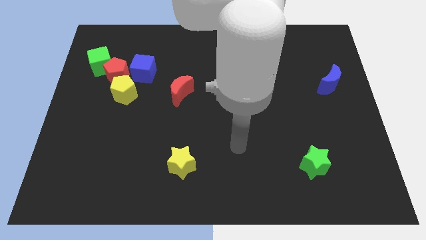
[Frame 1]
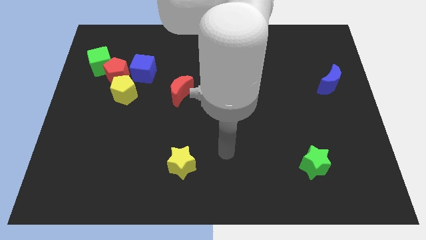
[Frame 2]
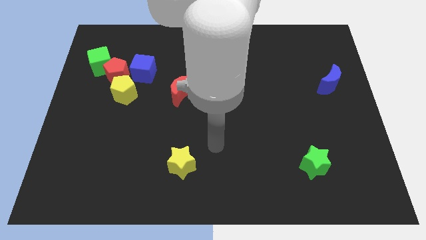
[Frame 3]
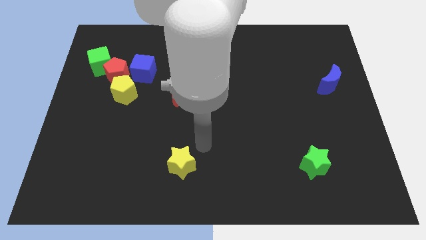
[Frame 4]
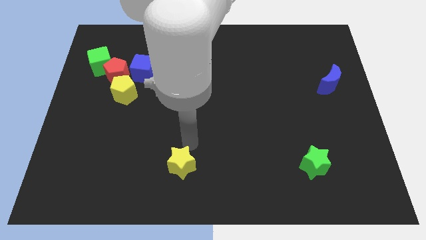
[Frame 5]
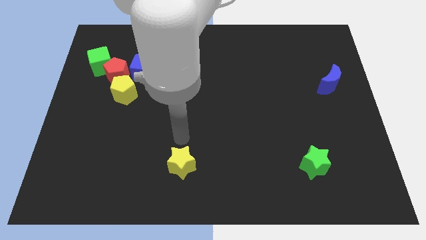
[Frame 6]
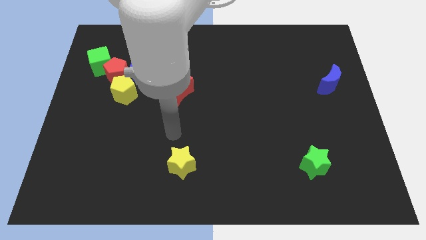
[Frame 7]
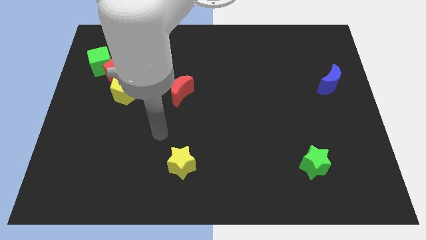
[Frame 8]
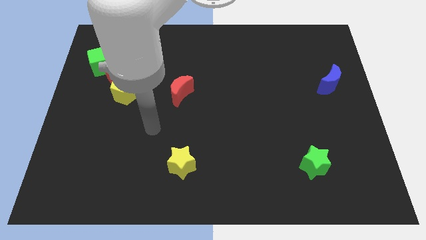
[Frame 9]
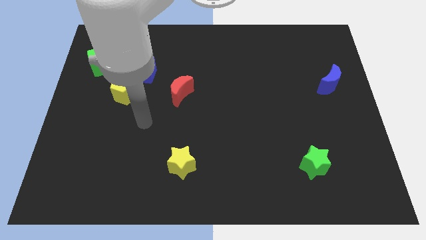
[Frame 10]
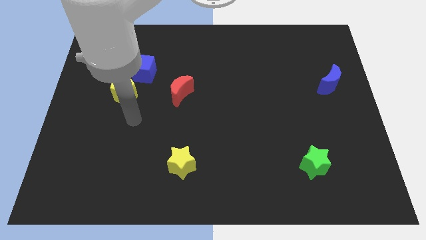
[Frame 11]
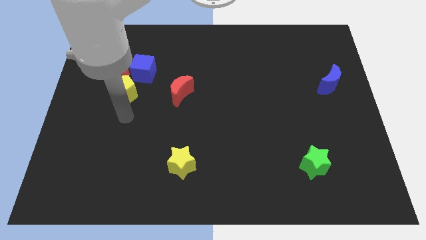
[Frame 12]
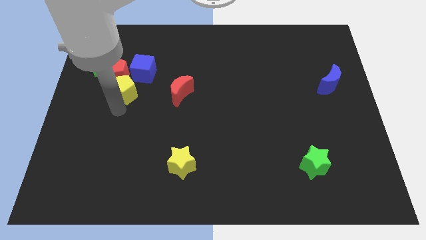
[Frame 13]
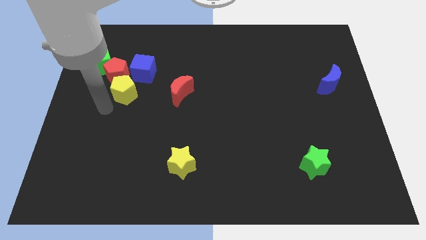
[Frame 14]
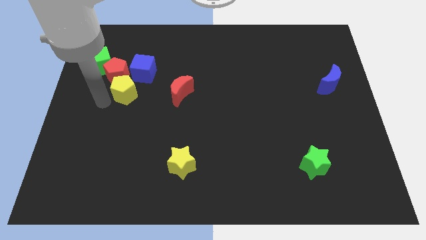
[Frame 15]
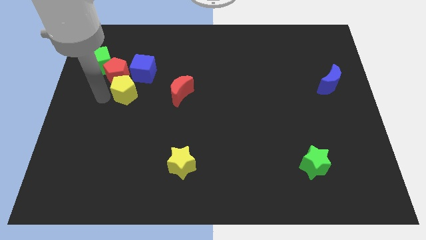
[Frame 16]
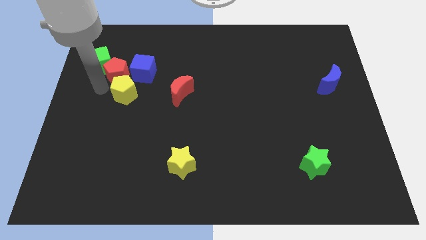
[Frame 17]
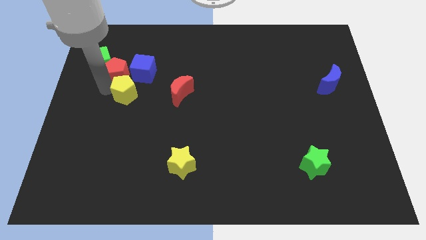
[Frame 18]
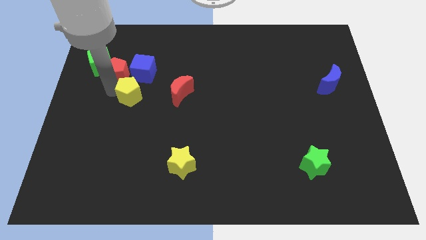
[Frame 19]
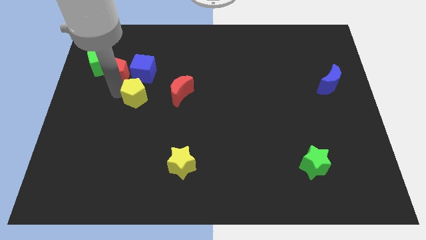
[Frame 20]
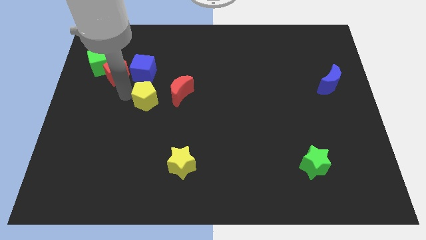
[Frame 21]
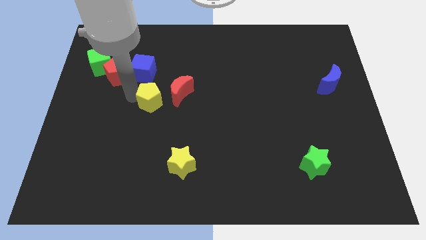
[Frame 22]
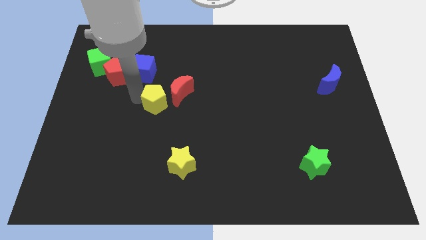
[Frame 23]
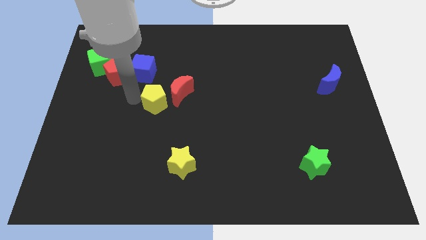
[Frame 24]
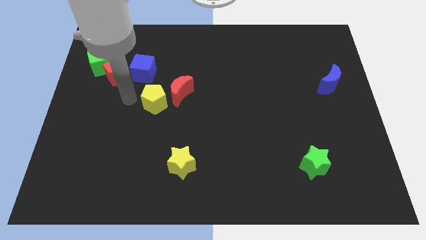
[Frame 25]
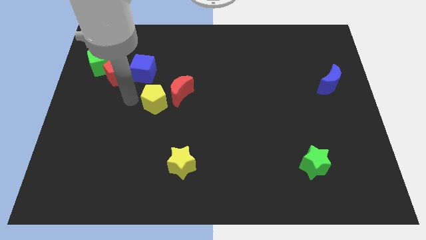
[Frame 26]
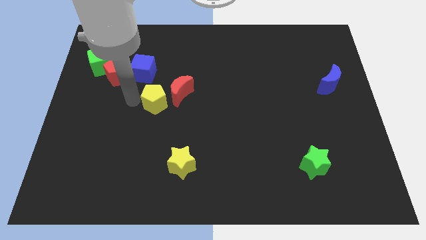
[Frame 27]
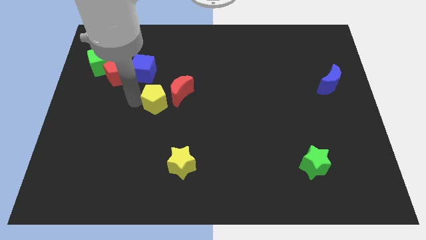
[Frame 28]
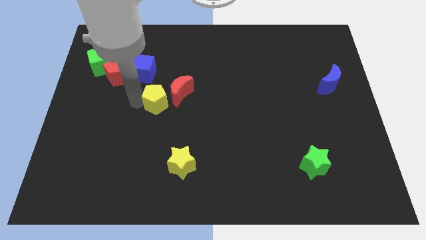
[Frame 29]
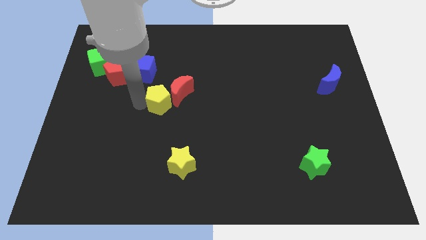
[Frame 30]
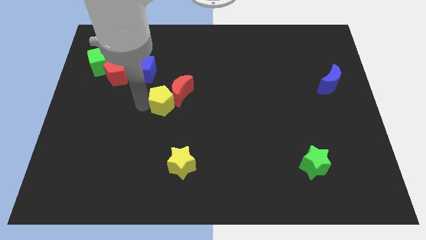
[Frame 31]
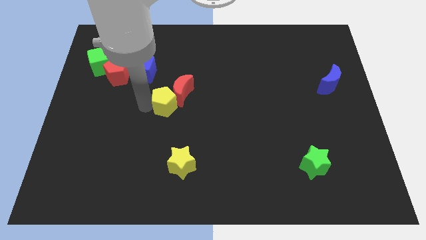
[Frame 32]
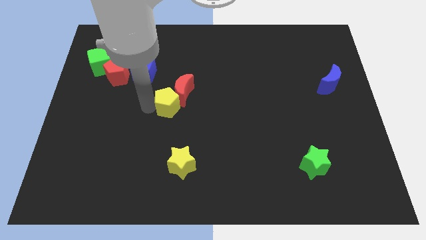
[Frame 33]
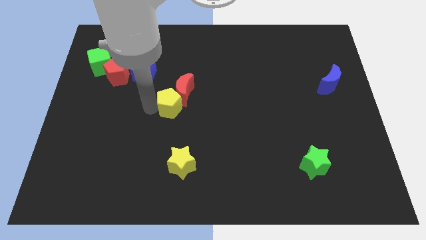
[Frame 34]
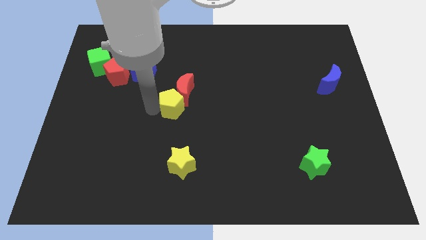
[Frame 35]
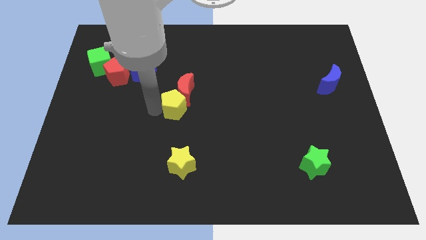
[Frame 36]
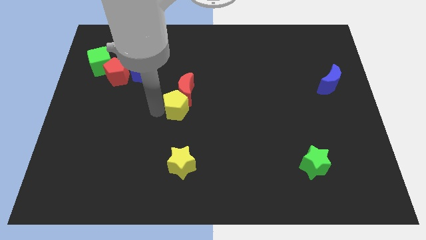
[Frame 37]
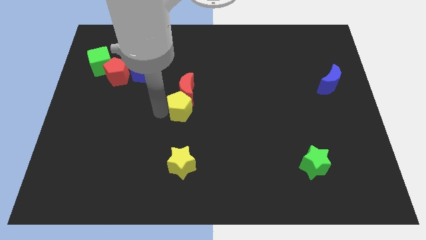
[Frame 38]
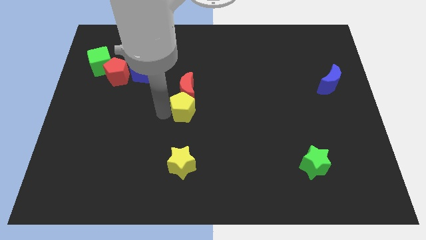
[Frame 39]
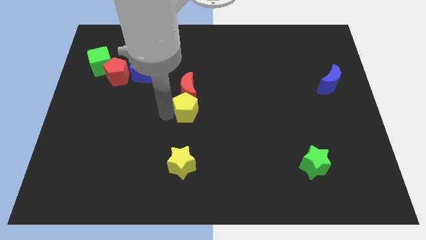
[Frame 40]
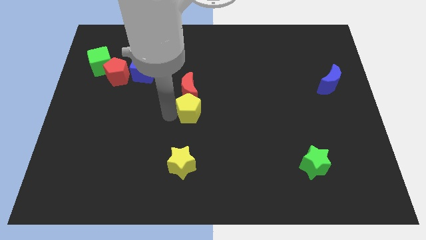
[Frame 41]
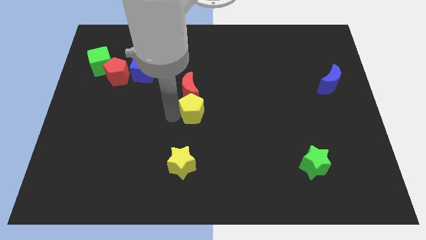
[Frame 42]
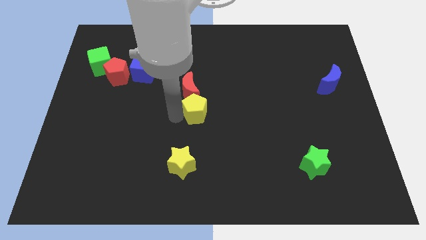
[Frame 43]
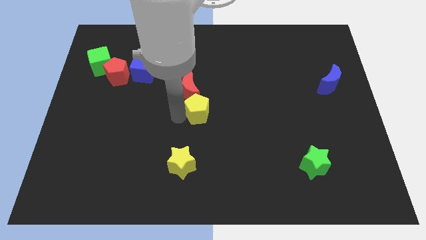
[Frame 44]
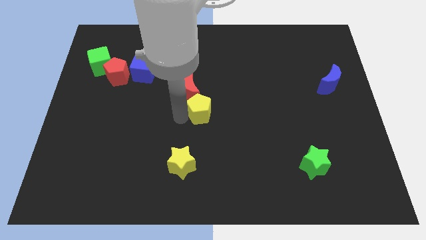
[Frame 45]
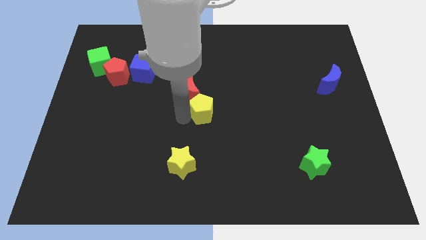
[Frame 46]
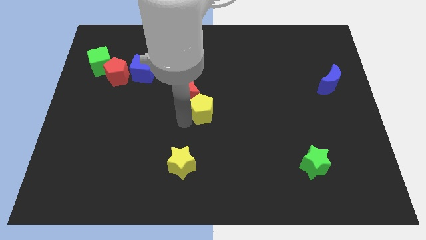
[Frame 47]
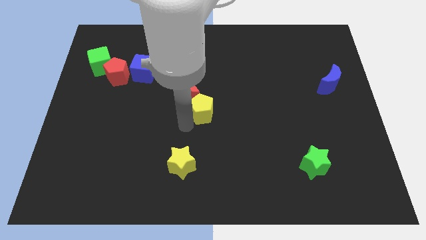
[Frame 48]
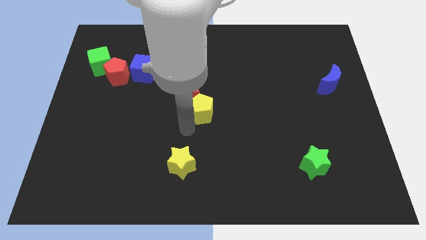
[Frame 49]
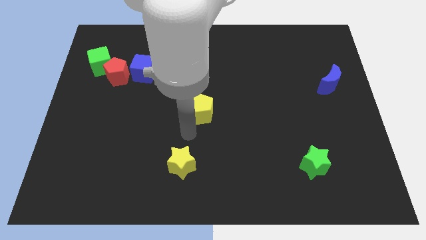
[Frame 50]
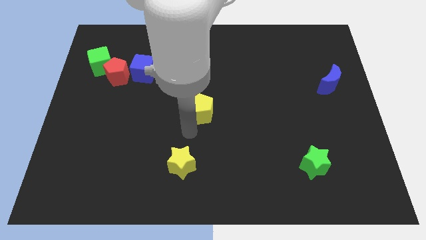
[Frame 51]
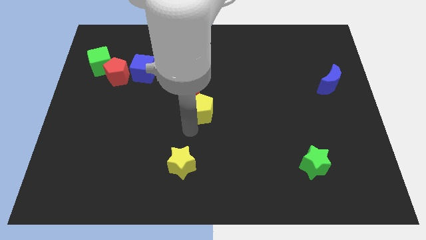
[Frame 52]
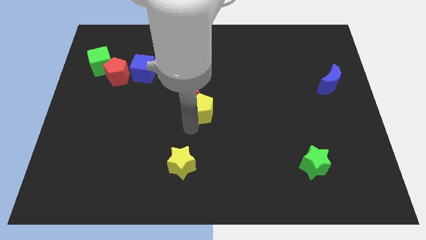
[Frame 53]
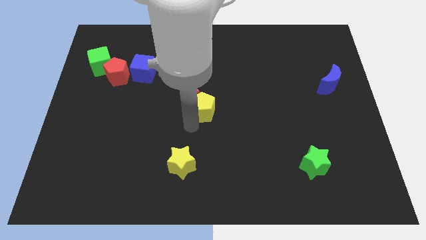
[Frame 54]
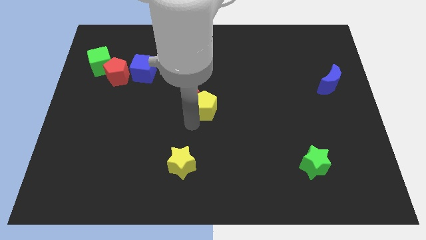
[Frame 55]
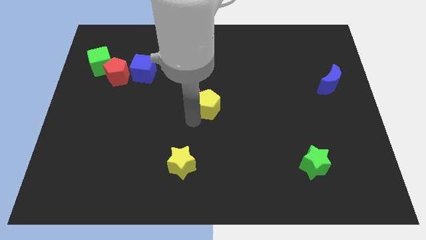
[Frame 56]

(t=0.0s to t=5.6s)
slide the yellow pentagon to the right side of the red moon

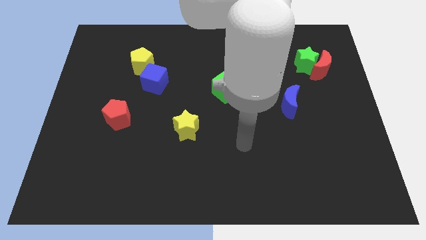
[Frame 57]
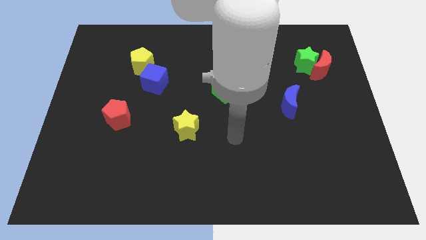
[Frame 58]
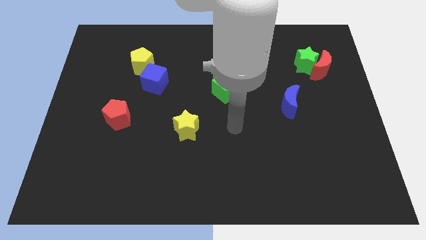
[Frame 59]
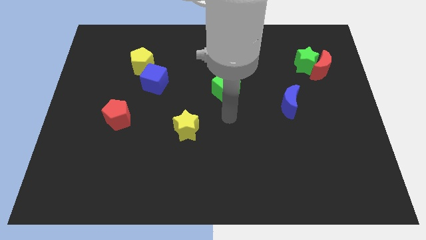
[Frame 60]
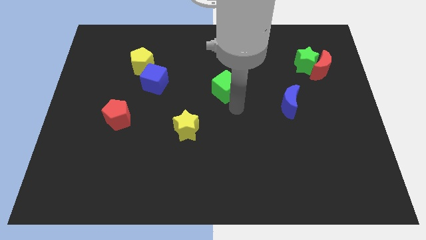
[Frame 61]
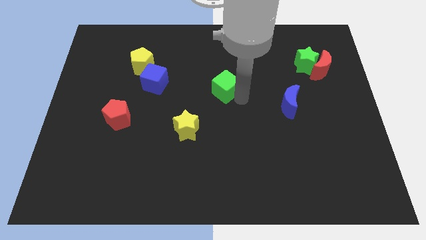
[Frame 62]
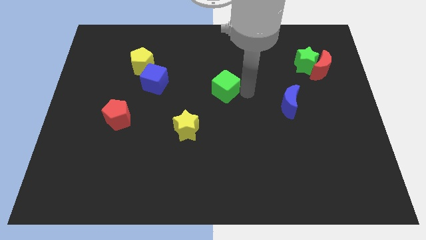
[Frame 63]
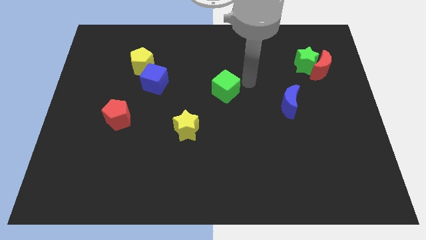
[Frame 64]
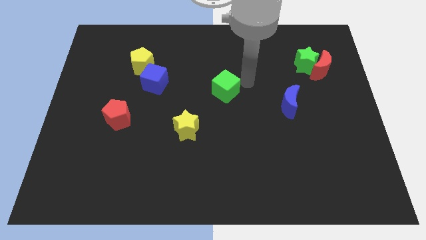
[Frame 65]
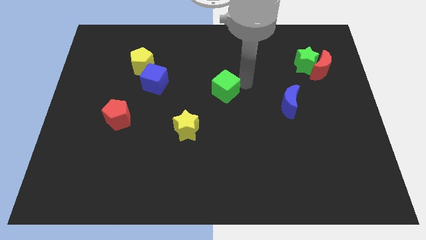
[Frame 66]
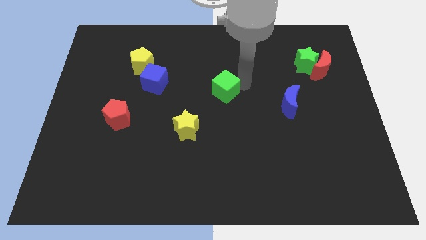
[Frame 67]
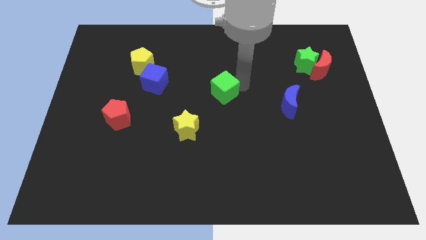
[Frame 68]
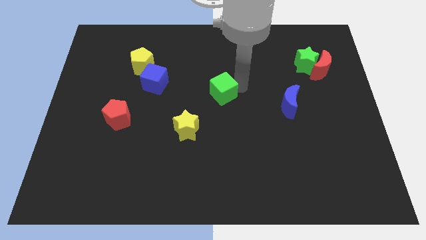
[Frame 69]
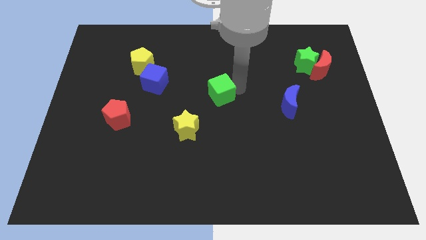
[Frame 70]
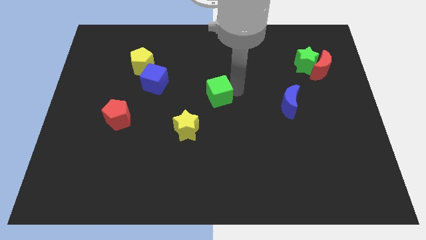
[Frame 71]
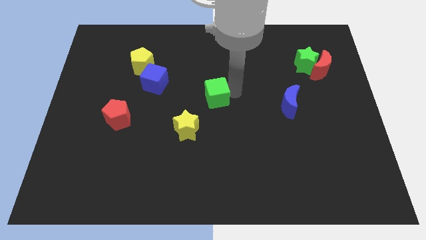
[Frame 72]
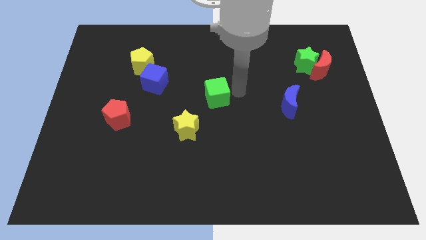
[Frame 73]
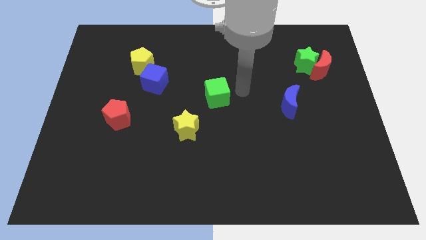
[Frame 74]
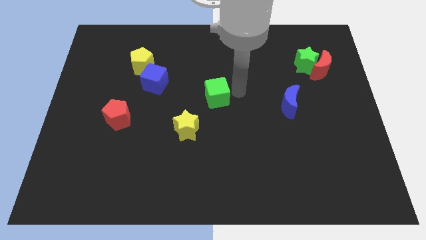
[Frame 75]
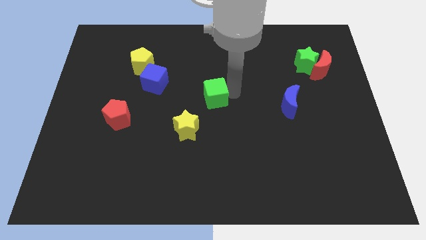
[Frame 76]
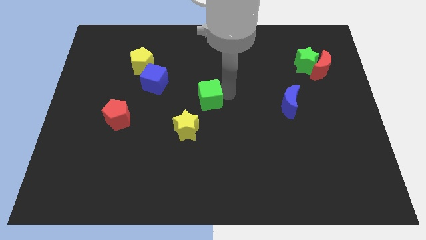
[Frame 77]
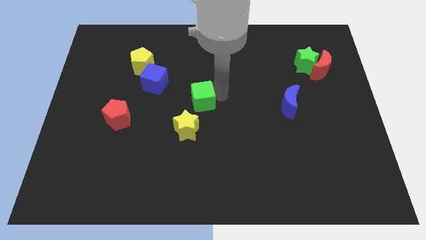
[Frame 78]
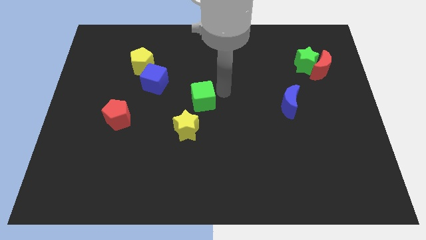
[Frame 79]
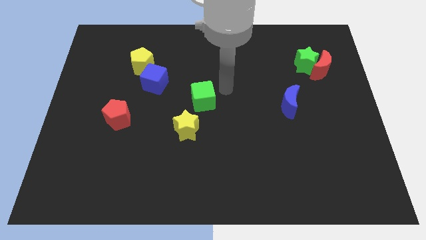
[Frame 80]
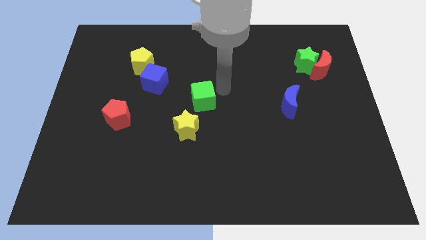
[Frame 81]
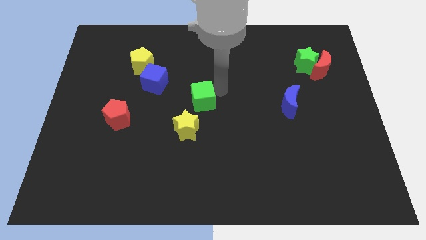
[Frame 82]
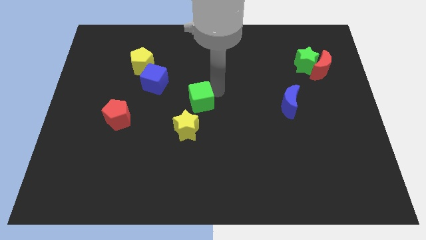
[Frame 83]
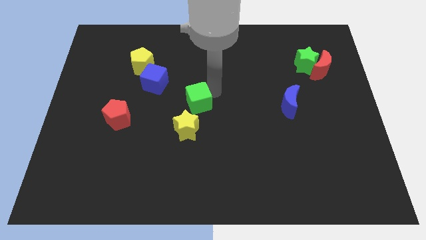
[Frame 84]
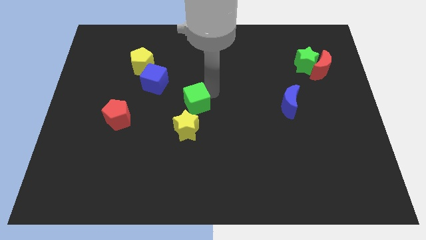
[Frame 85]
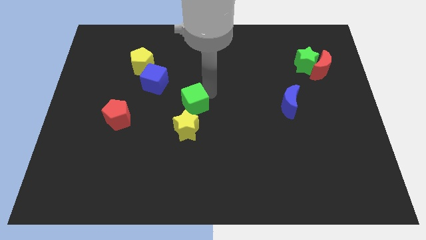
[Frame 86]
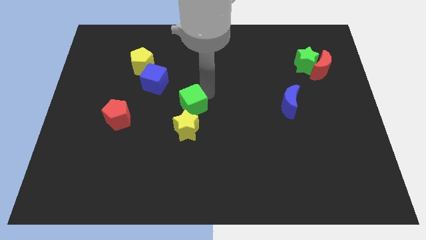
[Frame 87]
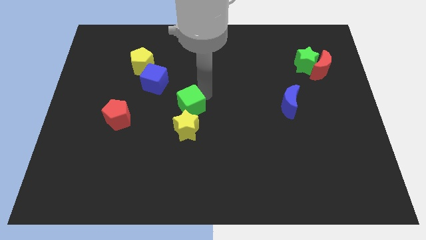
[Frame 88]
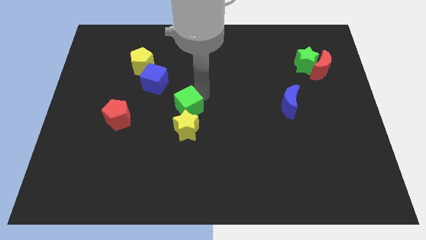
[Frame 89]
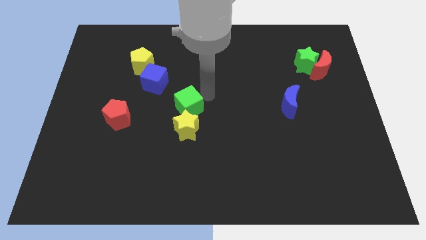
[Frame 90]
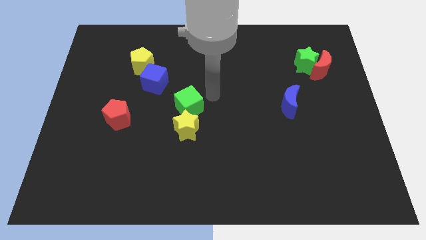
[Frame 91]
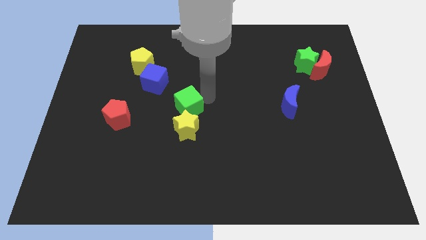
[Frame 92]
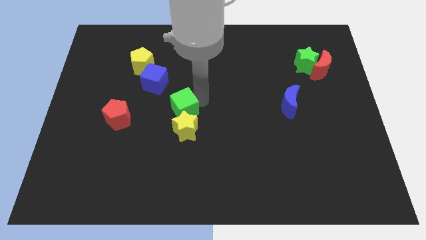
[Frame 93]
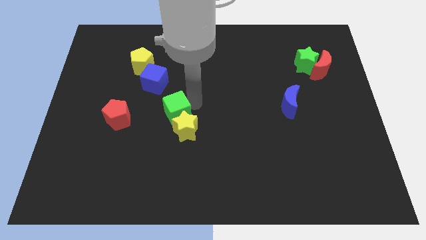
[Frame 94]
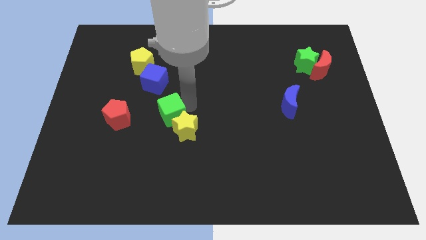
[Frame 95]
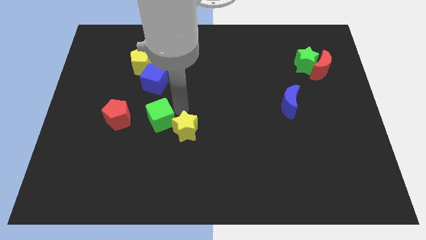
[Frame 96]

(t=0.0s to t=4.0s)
put the green cube left of the yellow star
